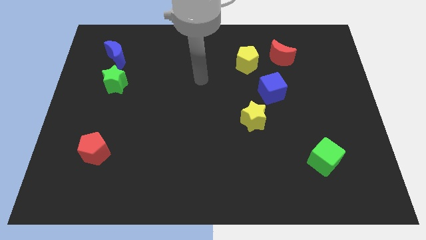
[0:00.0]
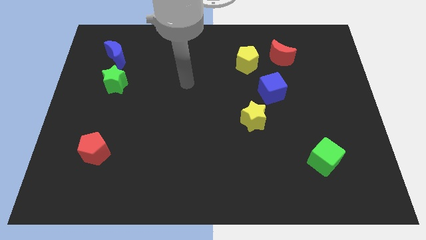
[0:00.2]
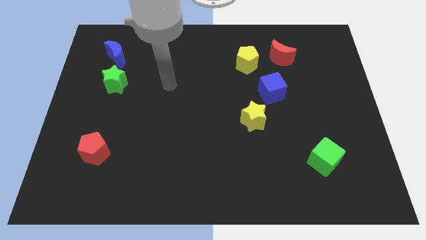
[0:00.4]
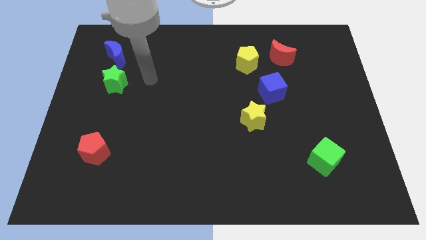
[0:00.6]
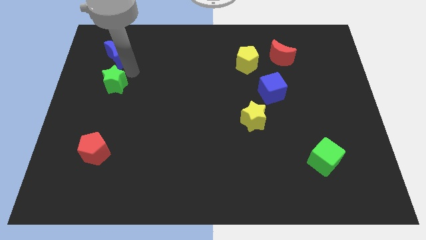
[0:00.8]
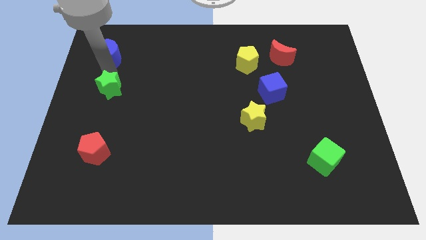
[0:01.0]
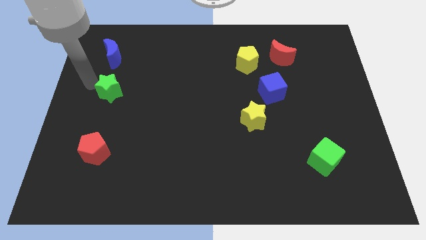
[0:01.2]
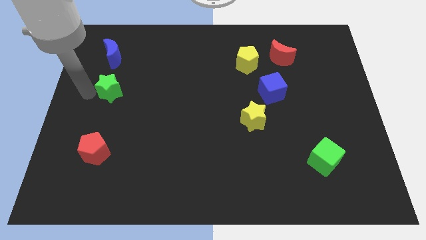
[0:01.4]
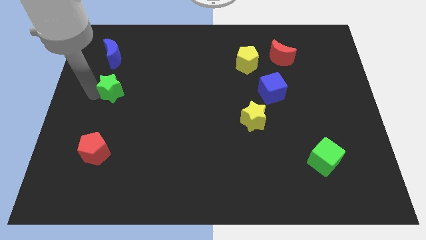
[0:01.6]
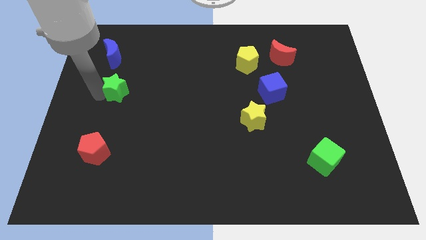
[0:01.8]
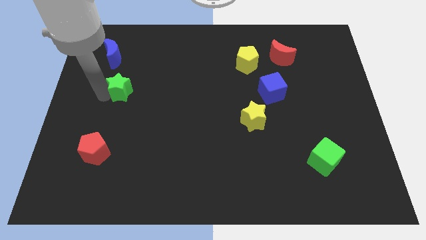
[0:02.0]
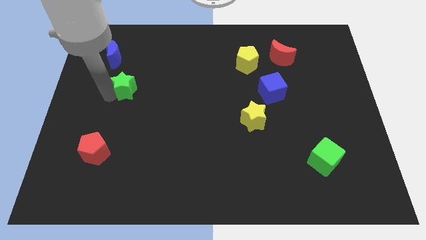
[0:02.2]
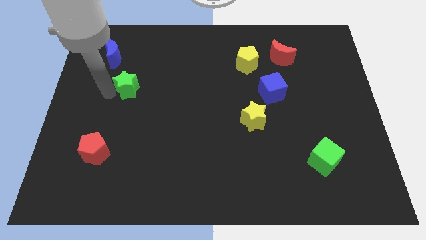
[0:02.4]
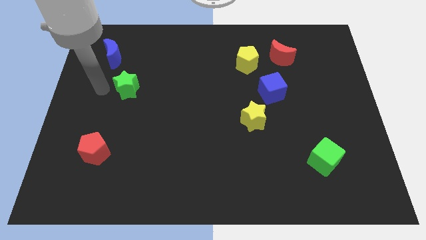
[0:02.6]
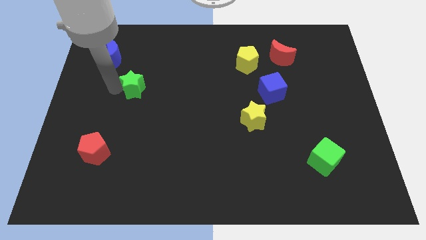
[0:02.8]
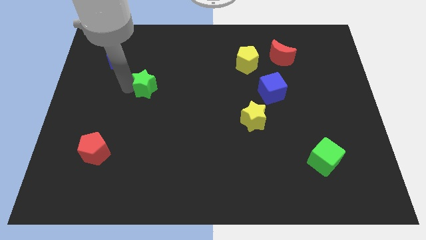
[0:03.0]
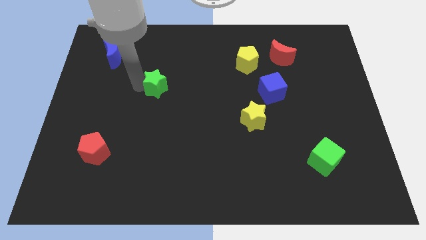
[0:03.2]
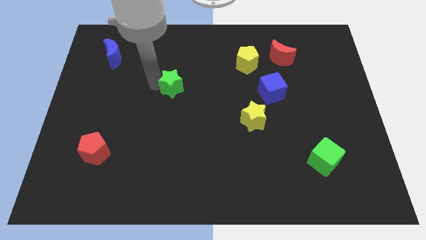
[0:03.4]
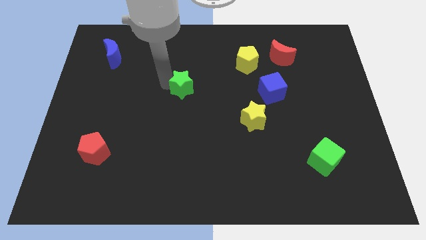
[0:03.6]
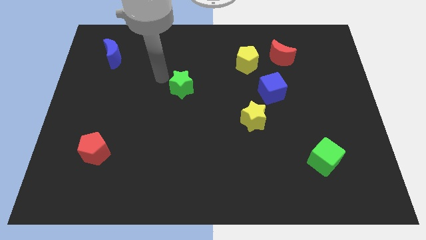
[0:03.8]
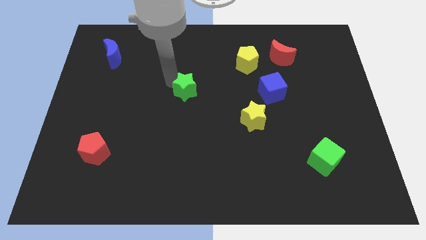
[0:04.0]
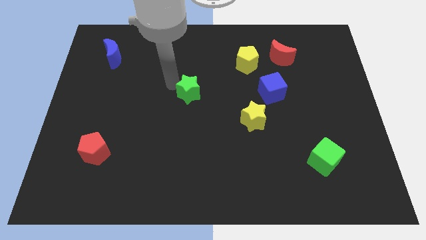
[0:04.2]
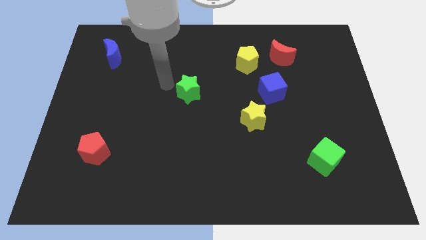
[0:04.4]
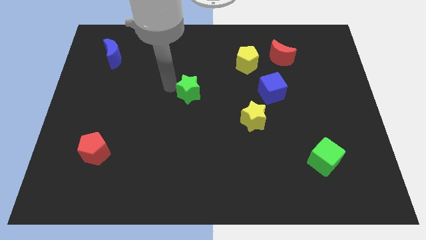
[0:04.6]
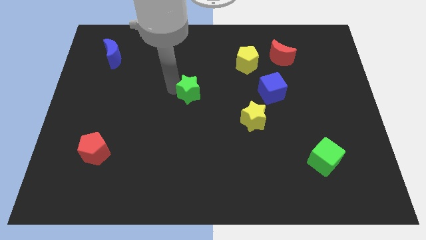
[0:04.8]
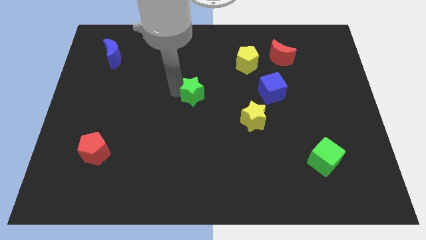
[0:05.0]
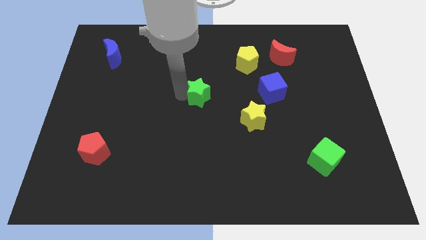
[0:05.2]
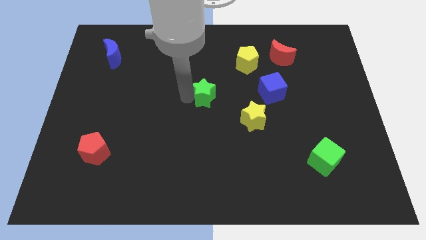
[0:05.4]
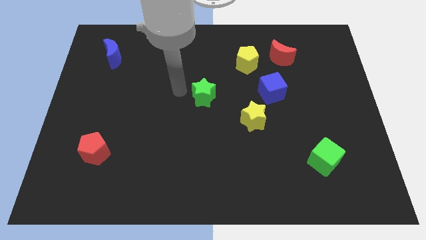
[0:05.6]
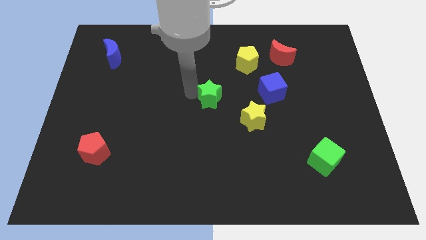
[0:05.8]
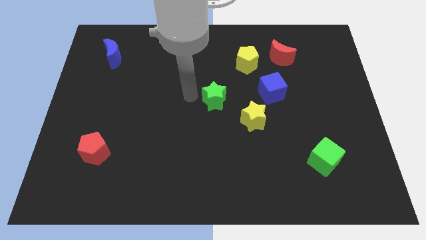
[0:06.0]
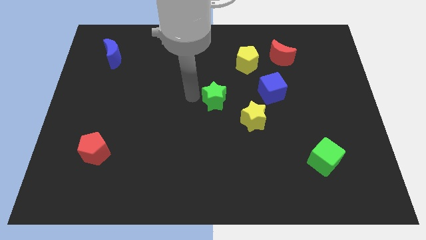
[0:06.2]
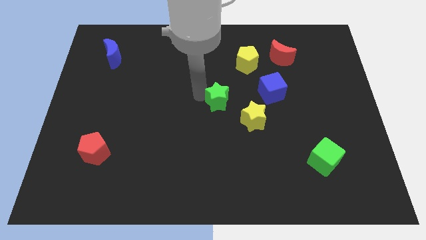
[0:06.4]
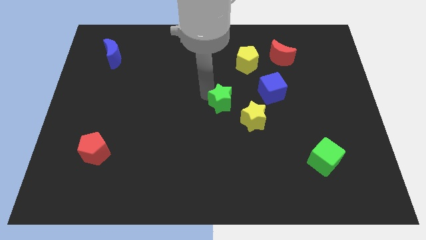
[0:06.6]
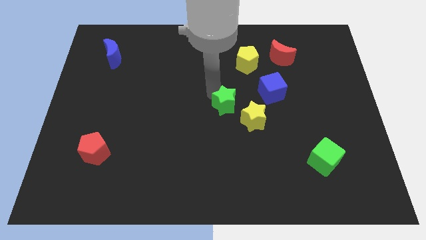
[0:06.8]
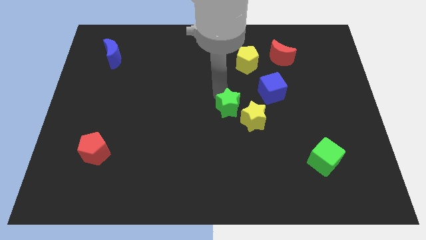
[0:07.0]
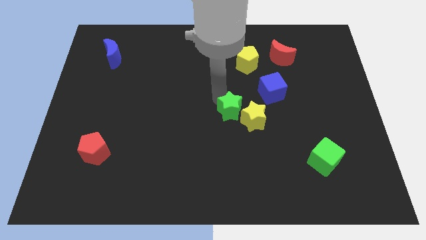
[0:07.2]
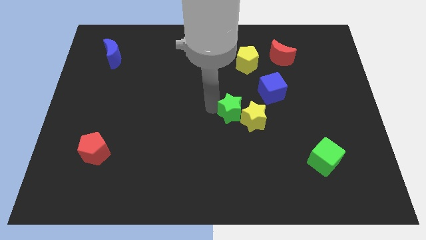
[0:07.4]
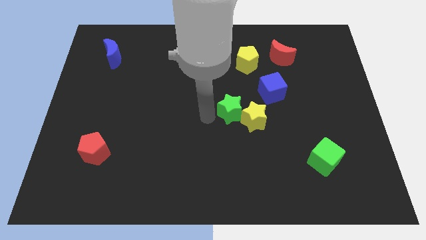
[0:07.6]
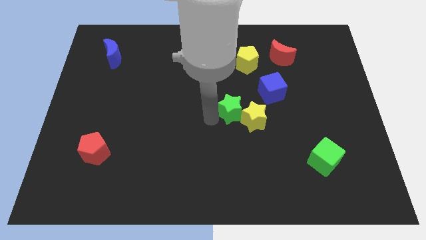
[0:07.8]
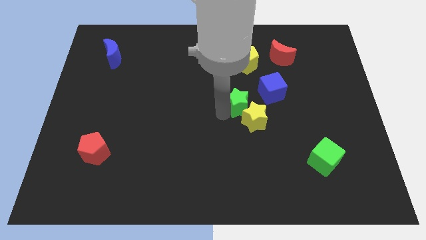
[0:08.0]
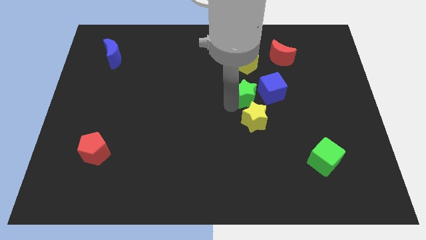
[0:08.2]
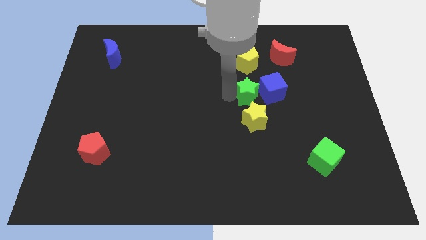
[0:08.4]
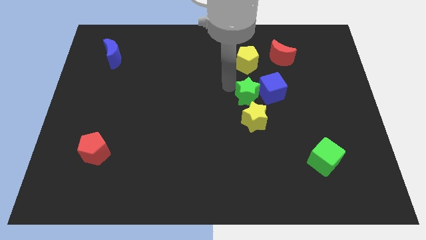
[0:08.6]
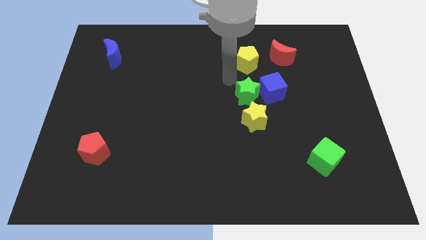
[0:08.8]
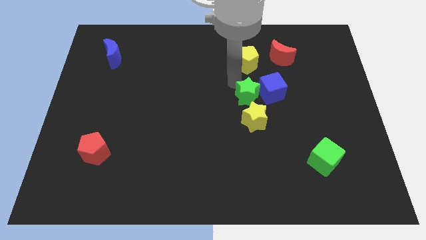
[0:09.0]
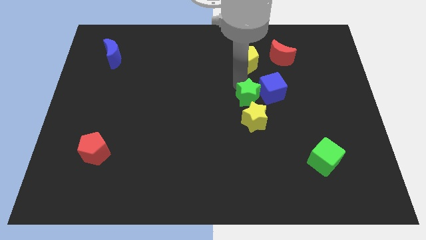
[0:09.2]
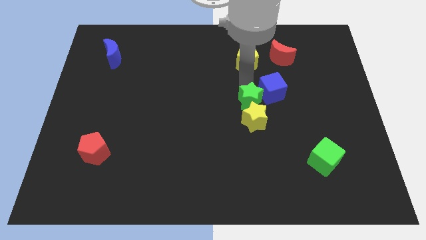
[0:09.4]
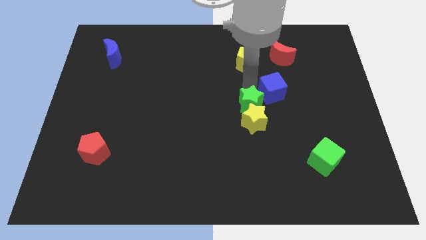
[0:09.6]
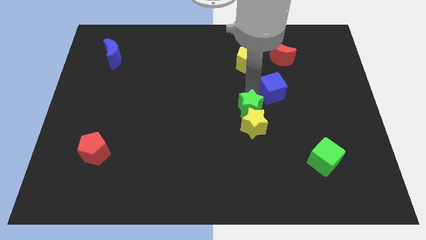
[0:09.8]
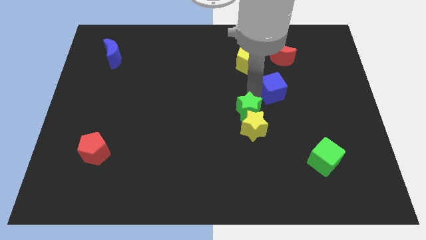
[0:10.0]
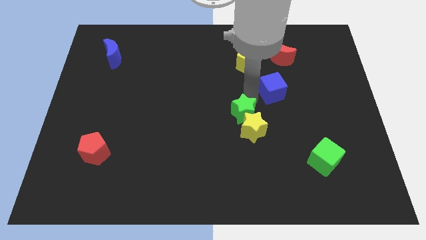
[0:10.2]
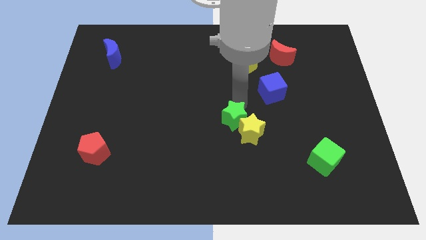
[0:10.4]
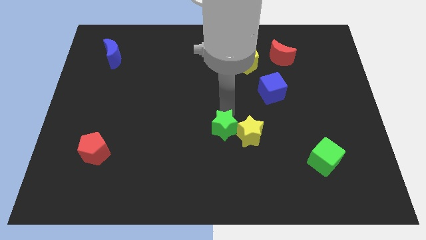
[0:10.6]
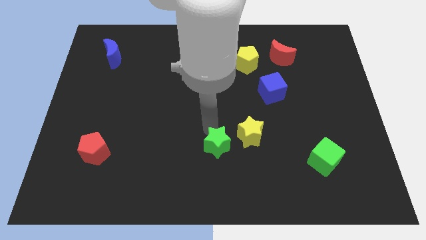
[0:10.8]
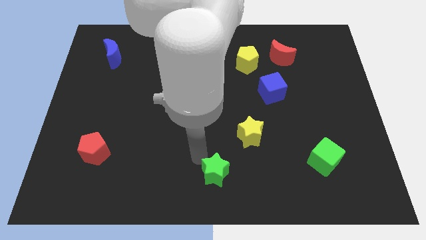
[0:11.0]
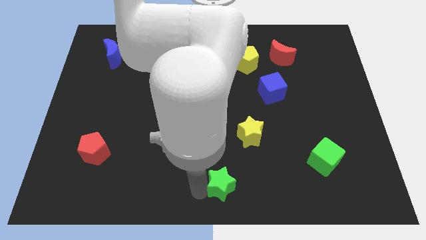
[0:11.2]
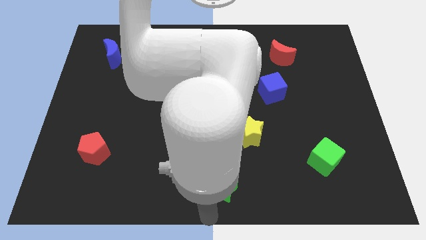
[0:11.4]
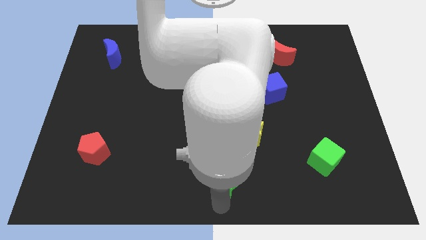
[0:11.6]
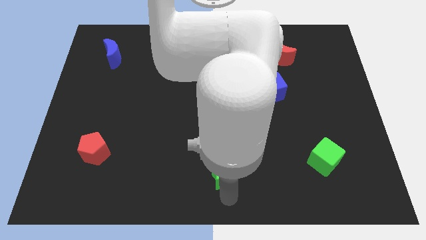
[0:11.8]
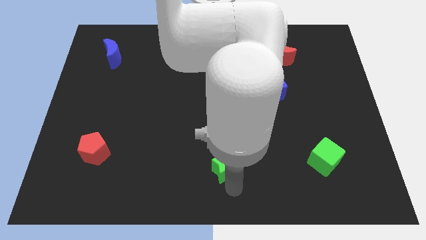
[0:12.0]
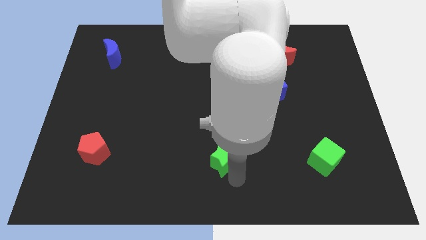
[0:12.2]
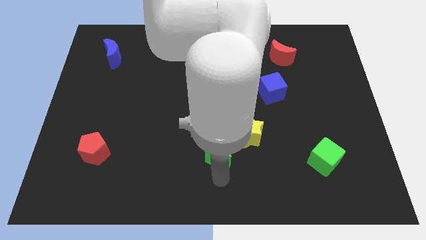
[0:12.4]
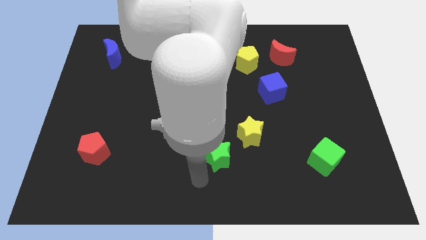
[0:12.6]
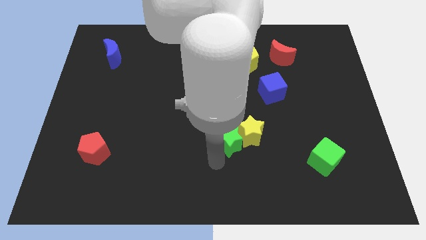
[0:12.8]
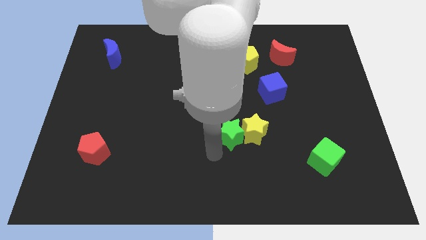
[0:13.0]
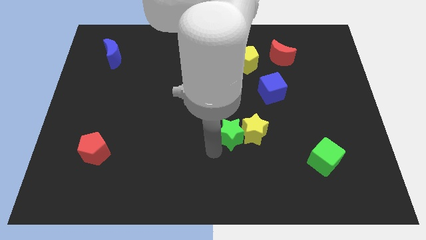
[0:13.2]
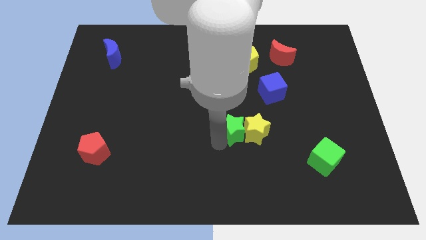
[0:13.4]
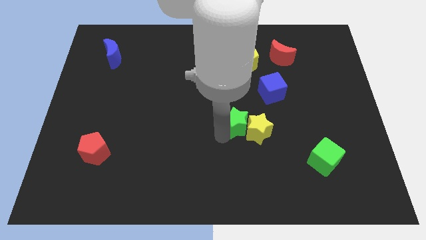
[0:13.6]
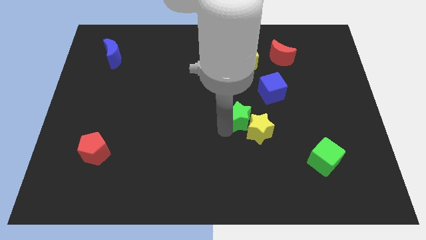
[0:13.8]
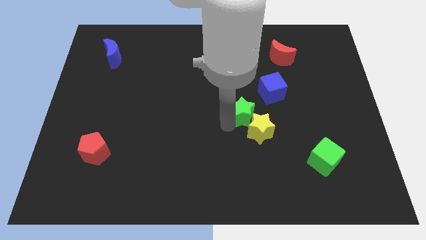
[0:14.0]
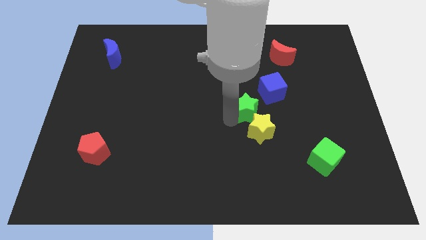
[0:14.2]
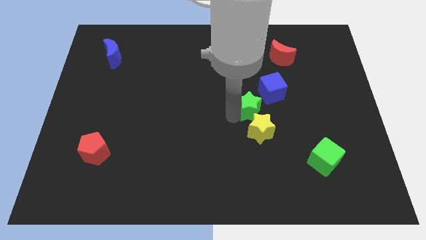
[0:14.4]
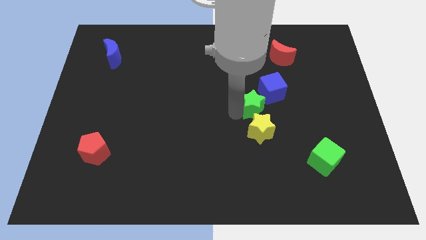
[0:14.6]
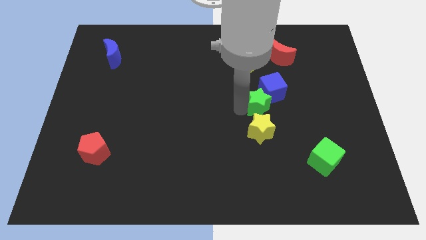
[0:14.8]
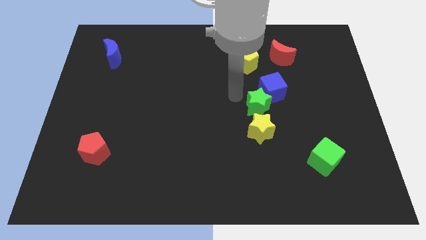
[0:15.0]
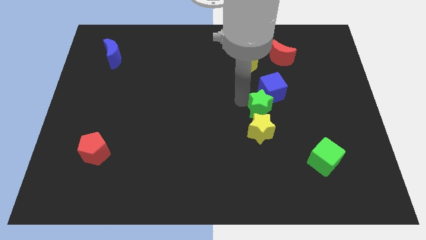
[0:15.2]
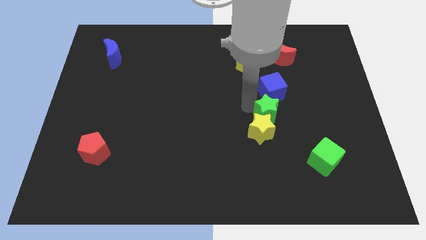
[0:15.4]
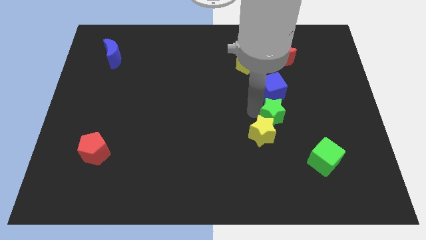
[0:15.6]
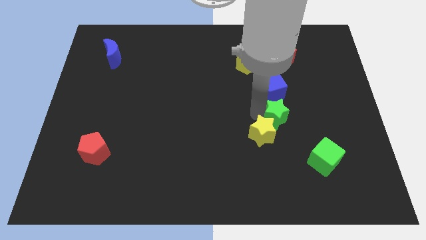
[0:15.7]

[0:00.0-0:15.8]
put the green star just right of the yellow star
